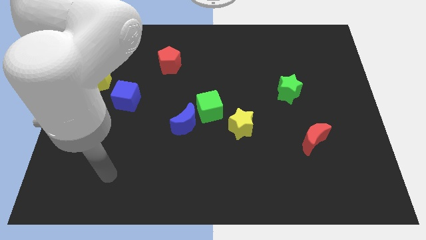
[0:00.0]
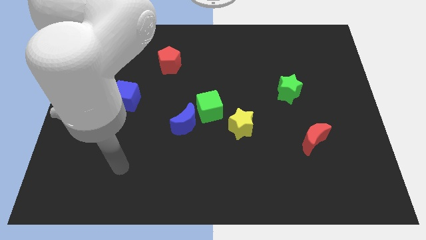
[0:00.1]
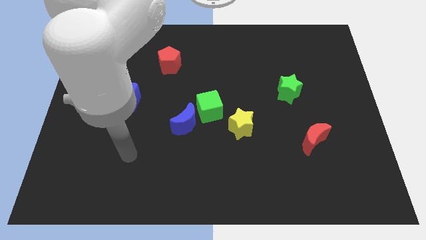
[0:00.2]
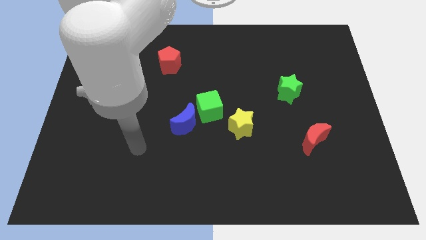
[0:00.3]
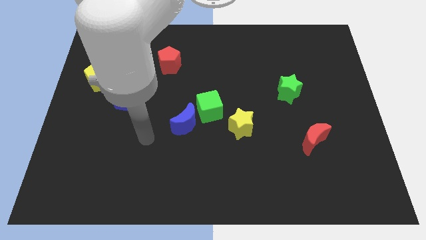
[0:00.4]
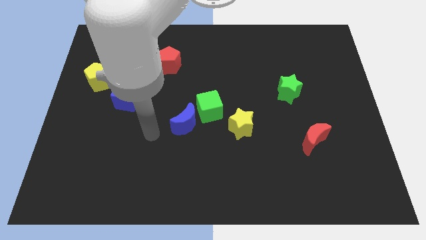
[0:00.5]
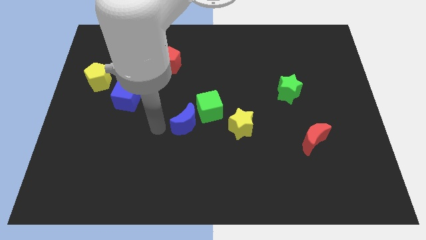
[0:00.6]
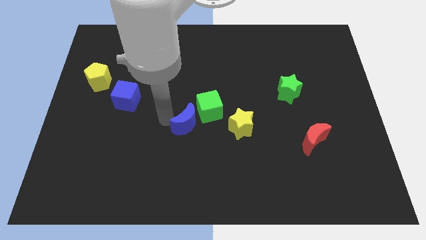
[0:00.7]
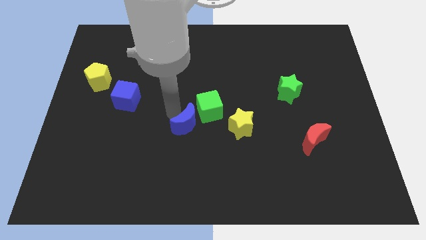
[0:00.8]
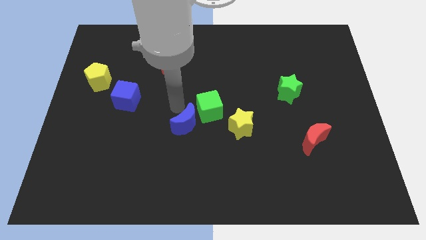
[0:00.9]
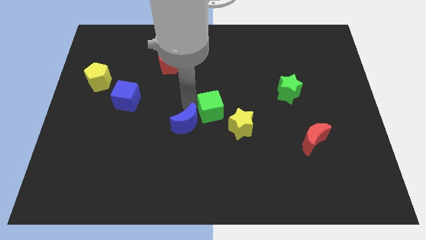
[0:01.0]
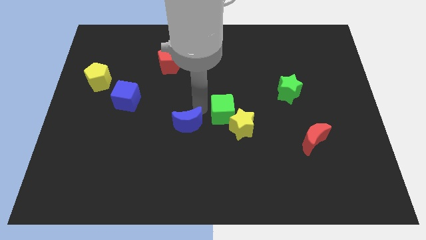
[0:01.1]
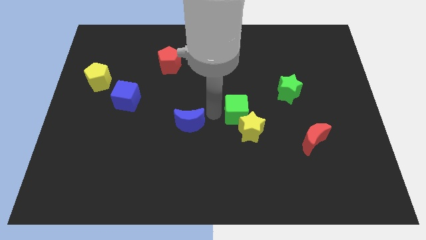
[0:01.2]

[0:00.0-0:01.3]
move the blue moon away from the green cube

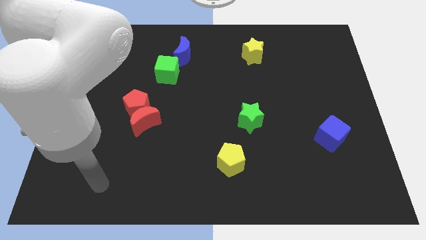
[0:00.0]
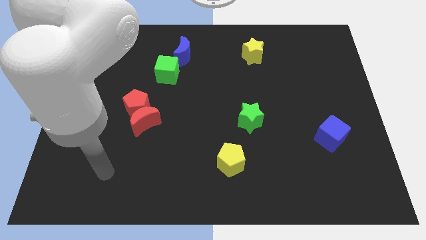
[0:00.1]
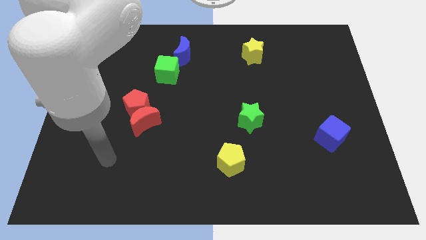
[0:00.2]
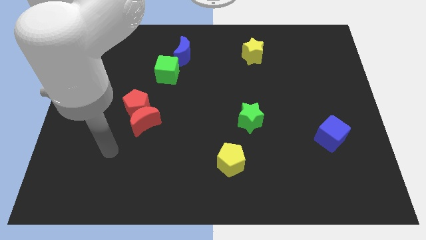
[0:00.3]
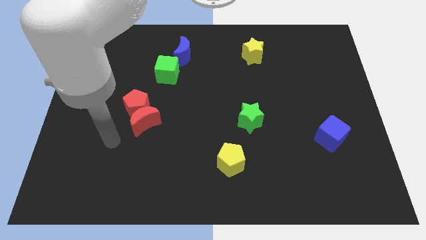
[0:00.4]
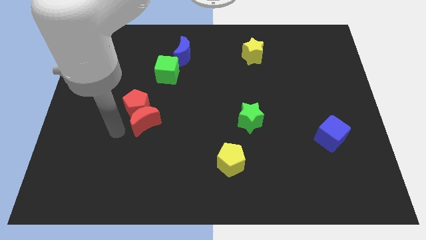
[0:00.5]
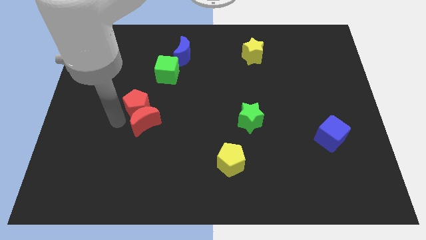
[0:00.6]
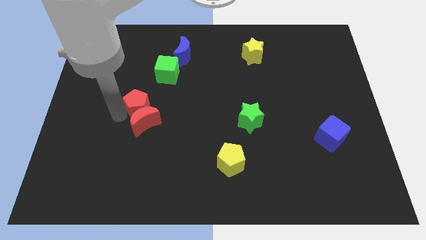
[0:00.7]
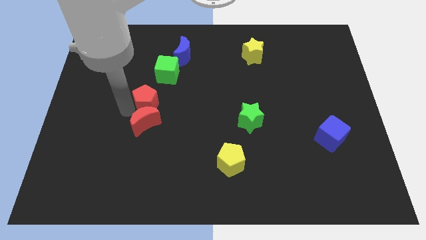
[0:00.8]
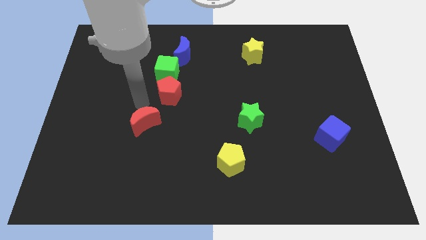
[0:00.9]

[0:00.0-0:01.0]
separate the red moon from the red pentagon

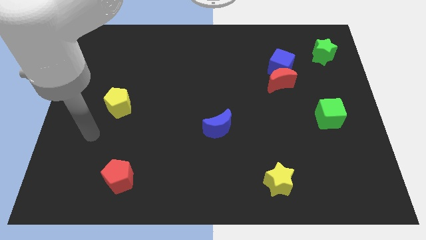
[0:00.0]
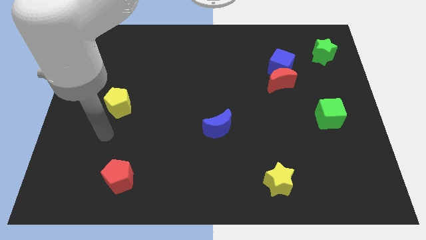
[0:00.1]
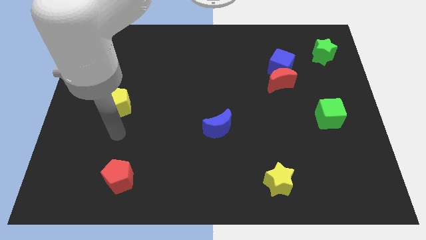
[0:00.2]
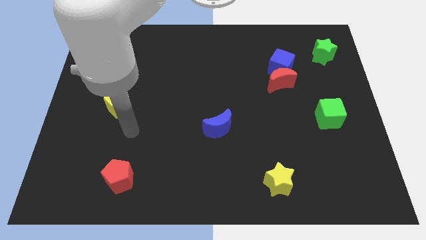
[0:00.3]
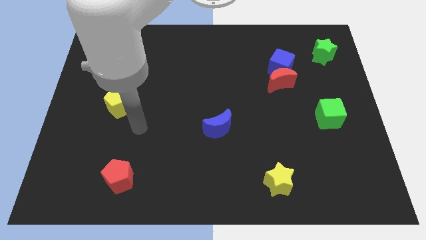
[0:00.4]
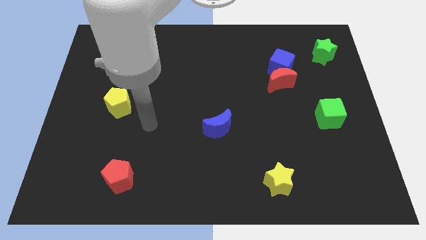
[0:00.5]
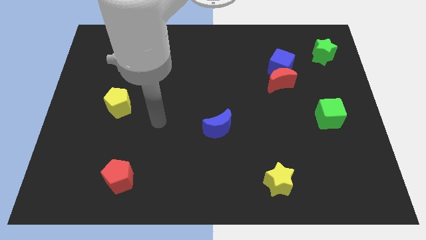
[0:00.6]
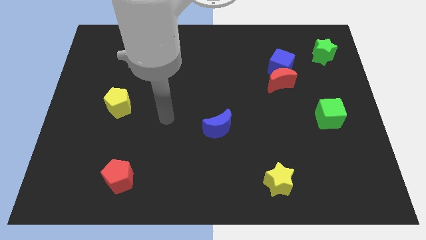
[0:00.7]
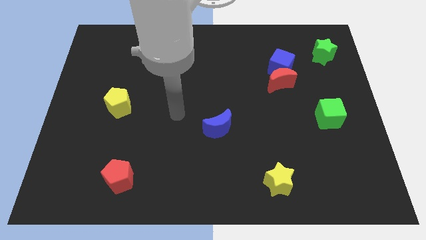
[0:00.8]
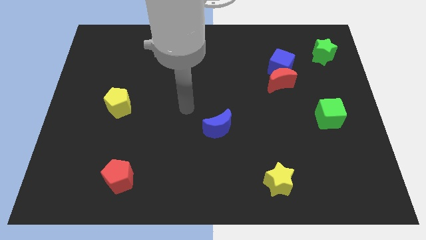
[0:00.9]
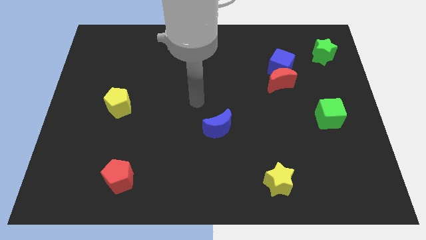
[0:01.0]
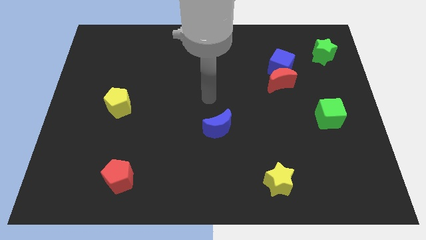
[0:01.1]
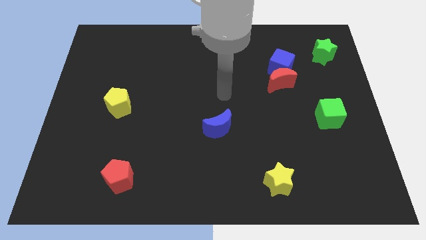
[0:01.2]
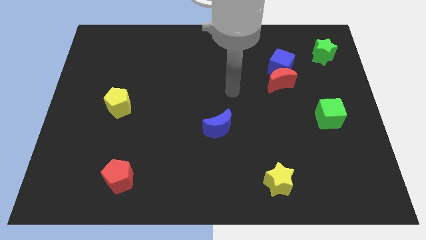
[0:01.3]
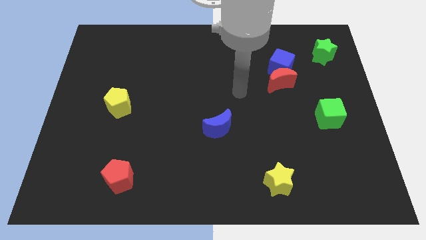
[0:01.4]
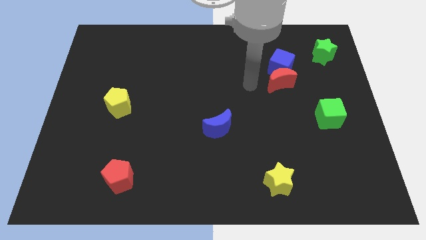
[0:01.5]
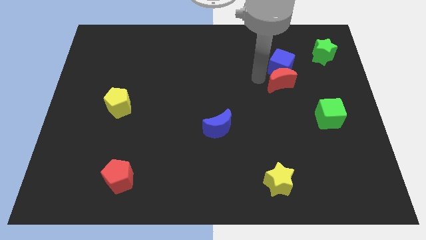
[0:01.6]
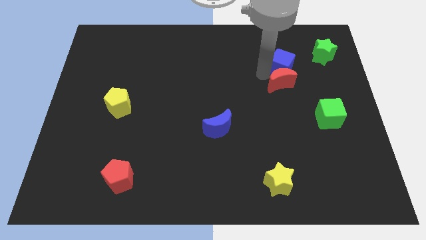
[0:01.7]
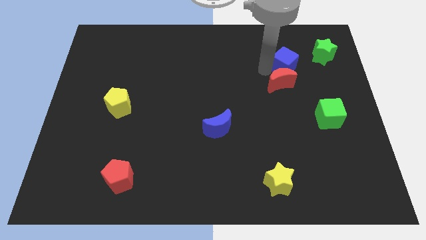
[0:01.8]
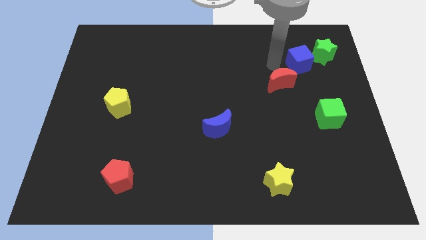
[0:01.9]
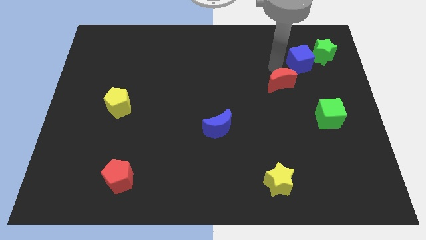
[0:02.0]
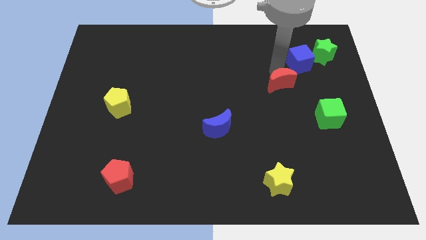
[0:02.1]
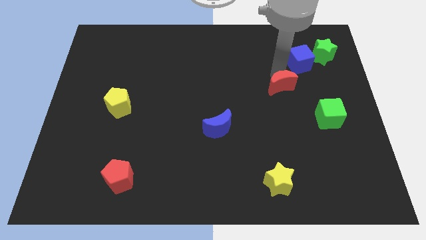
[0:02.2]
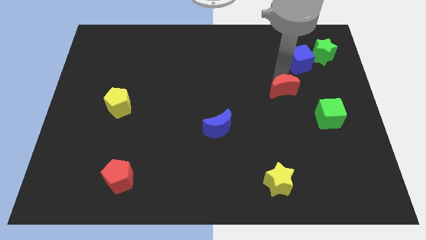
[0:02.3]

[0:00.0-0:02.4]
pull the red moon apart from the blue cube

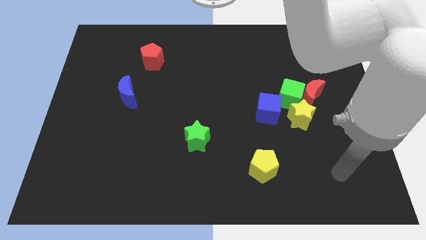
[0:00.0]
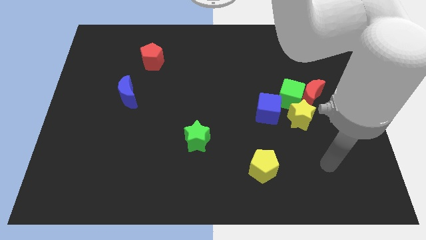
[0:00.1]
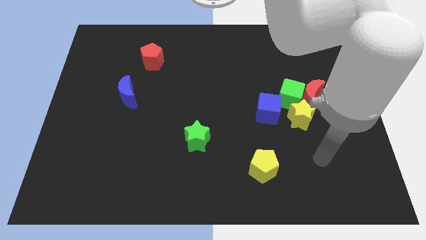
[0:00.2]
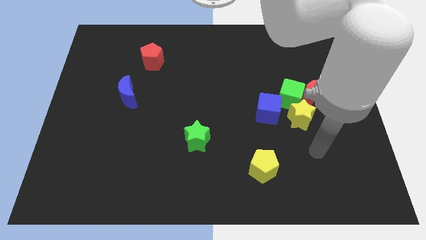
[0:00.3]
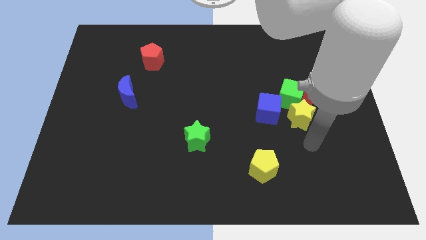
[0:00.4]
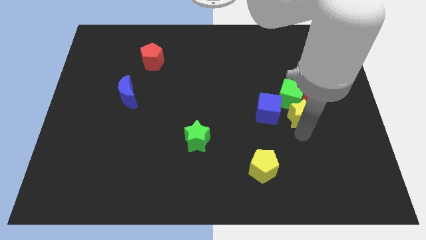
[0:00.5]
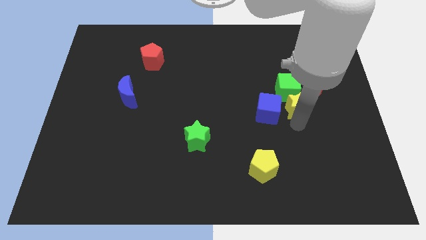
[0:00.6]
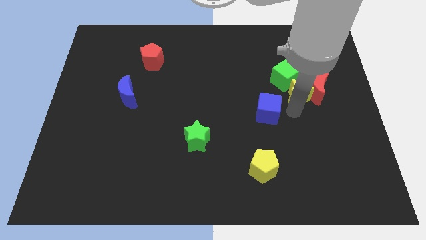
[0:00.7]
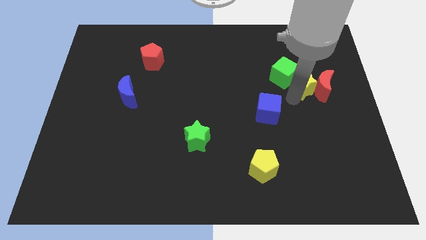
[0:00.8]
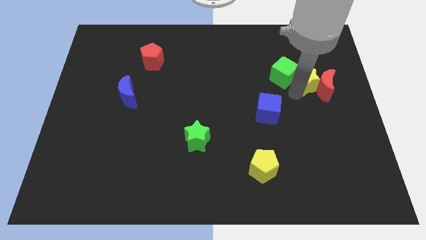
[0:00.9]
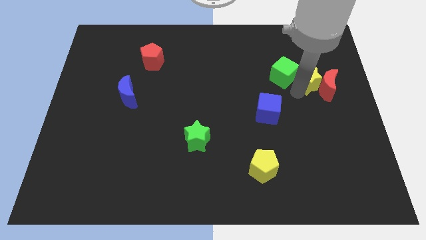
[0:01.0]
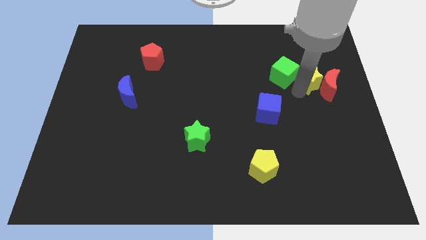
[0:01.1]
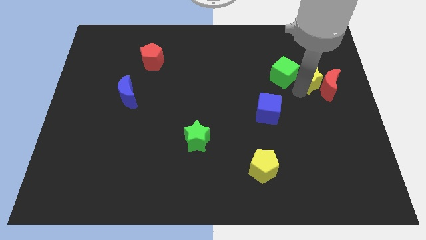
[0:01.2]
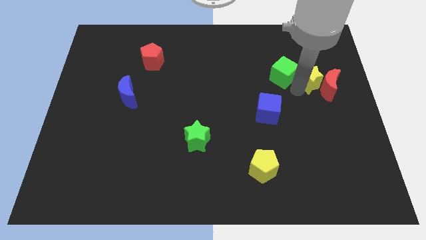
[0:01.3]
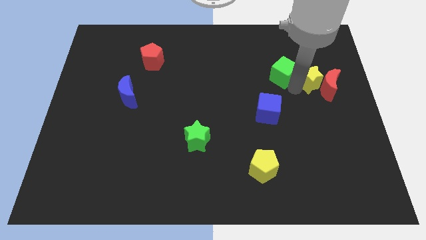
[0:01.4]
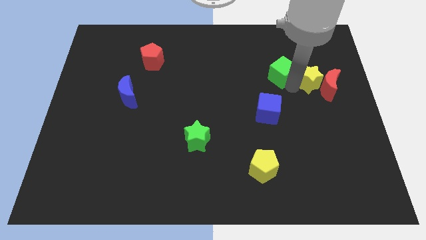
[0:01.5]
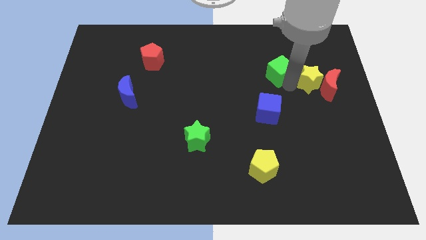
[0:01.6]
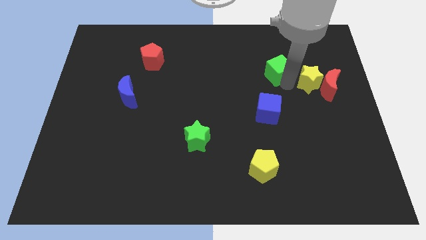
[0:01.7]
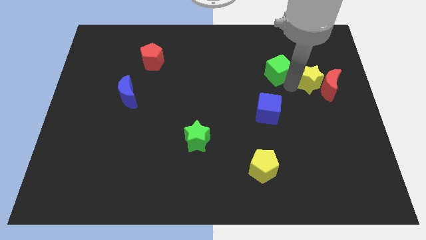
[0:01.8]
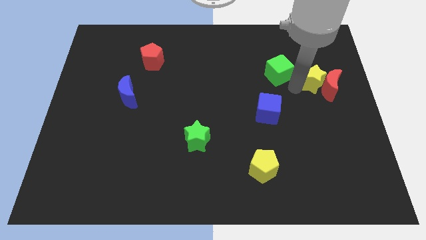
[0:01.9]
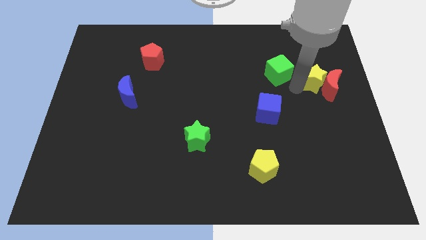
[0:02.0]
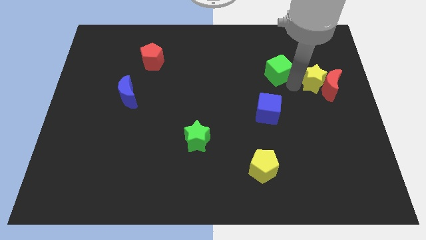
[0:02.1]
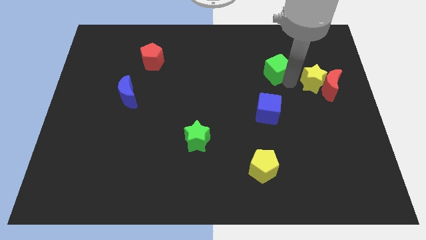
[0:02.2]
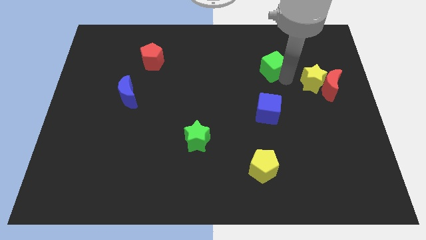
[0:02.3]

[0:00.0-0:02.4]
separate the green cube from the clump

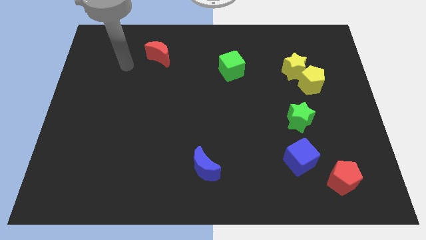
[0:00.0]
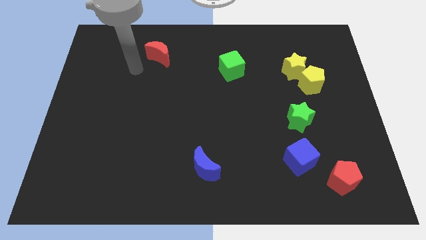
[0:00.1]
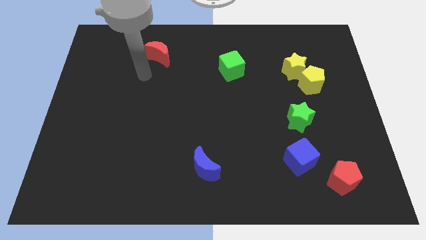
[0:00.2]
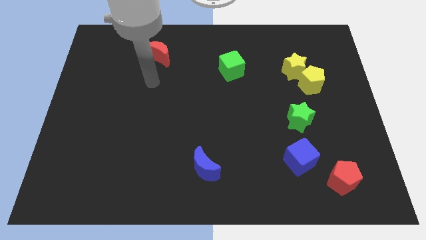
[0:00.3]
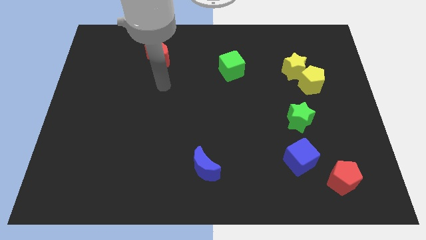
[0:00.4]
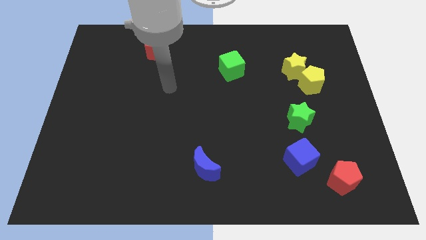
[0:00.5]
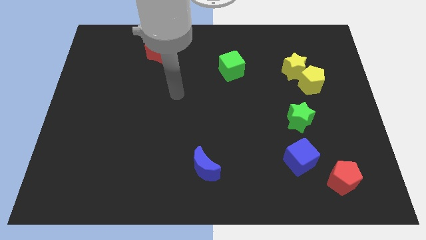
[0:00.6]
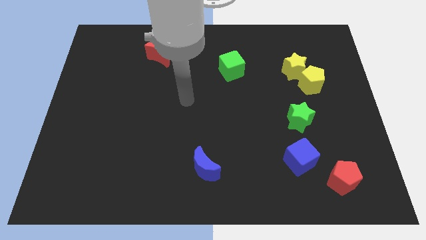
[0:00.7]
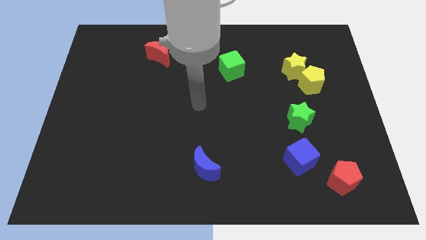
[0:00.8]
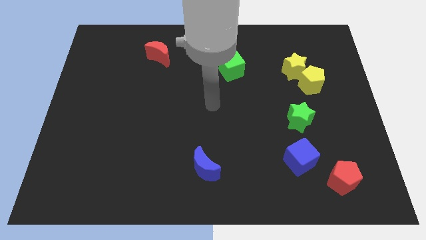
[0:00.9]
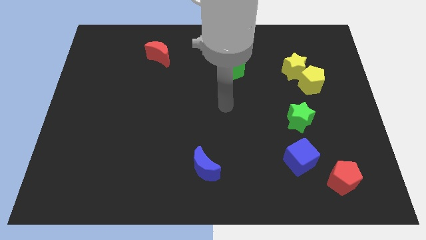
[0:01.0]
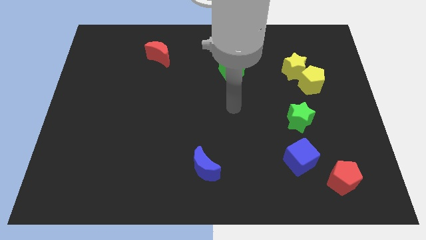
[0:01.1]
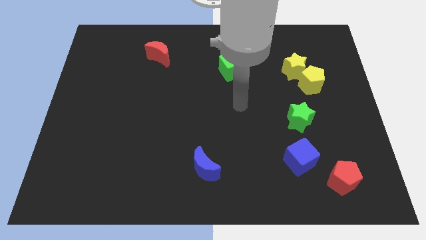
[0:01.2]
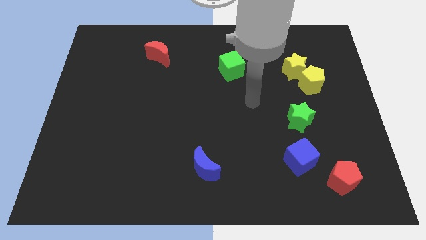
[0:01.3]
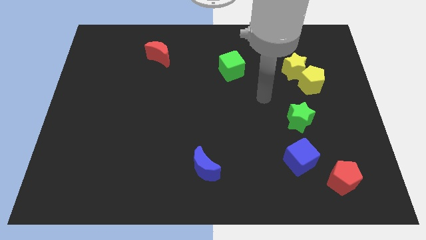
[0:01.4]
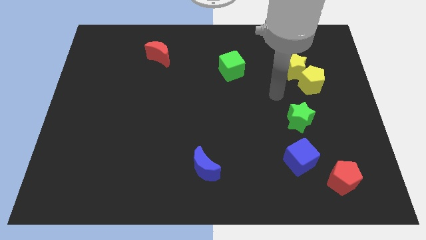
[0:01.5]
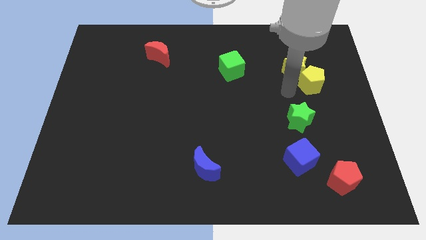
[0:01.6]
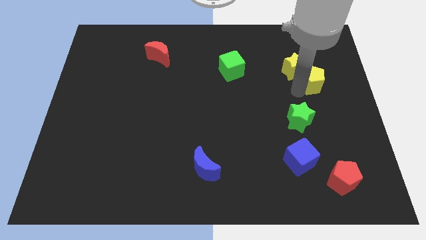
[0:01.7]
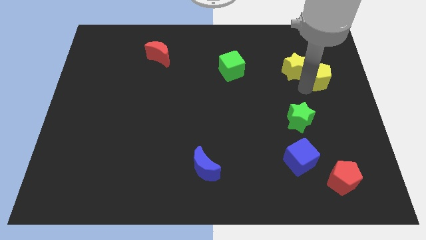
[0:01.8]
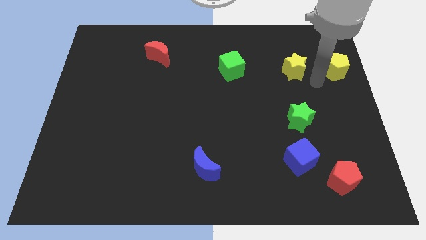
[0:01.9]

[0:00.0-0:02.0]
separate the yellow star from the yellow pentagon

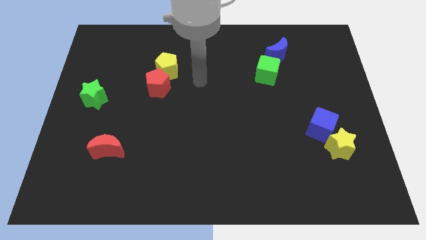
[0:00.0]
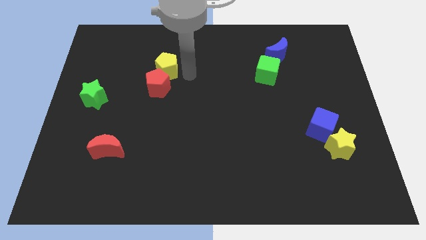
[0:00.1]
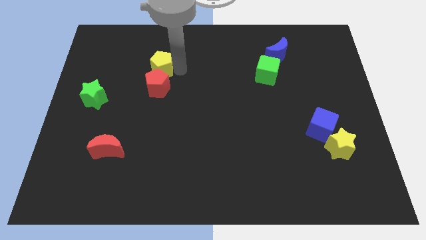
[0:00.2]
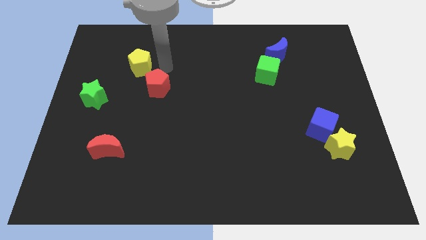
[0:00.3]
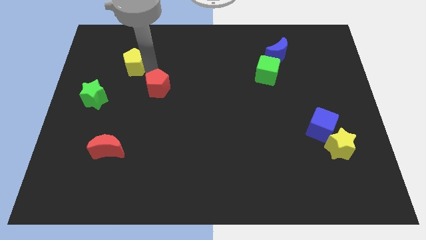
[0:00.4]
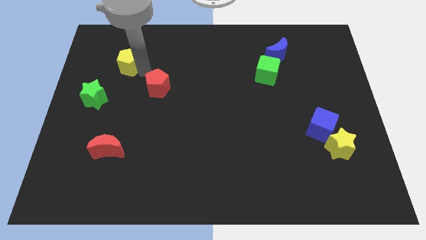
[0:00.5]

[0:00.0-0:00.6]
move the red pentagon away from the yellow pentagon
